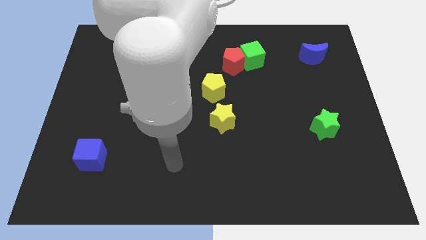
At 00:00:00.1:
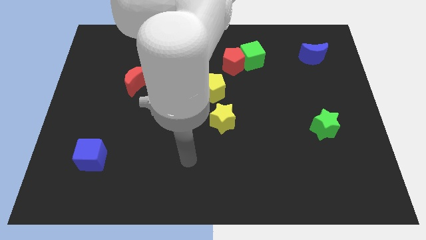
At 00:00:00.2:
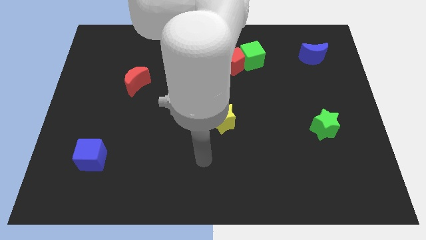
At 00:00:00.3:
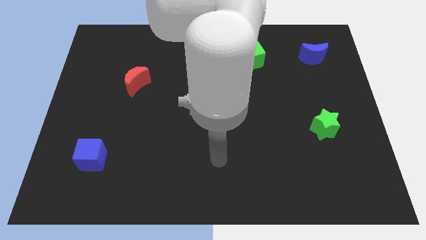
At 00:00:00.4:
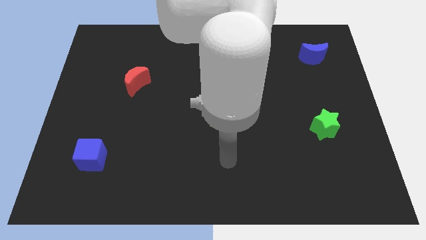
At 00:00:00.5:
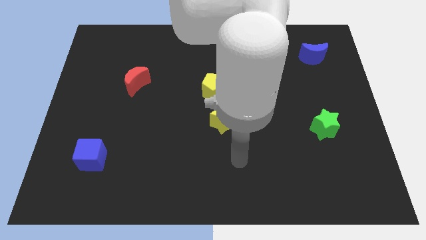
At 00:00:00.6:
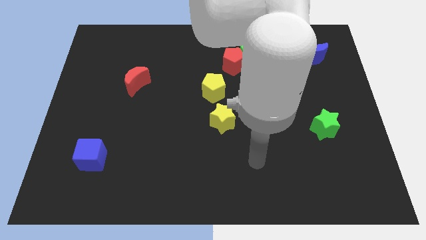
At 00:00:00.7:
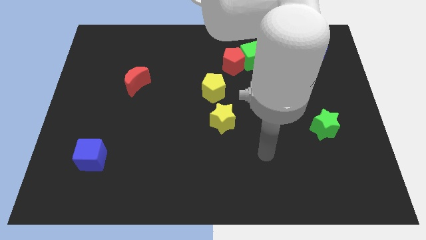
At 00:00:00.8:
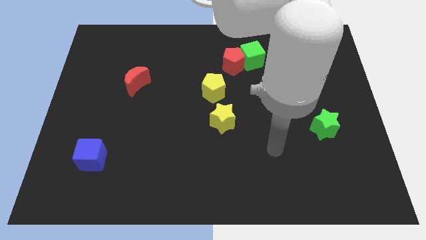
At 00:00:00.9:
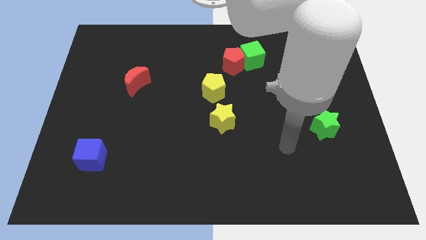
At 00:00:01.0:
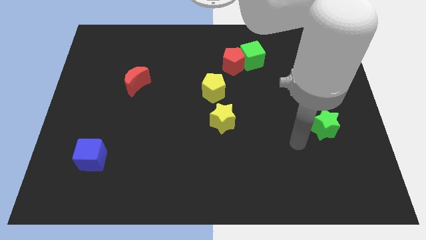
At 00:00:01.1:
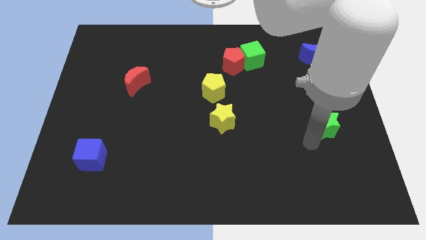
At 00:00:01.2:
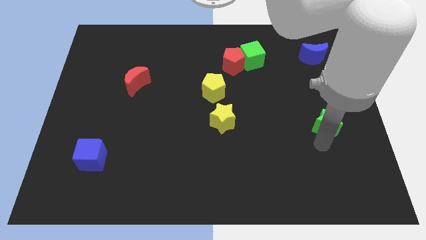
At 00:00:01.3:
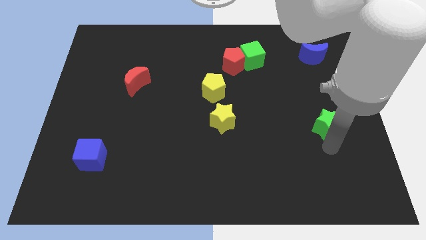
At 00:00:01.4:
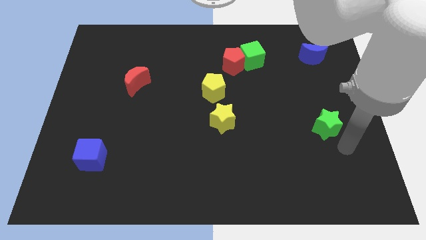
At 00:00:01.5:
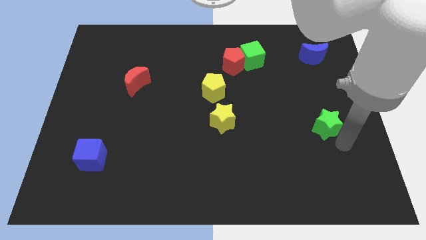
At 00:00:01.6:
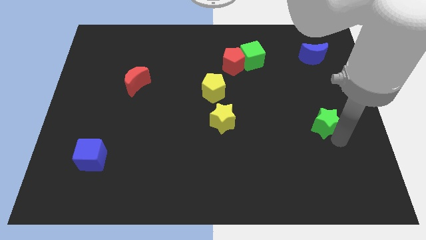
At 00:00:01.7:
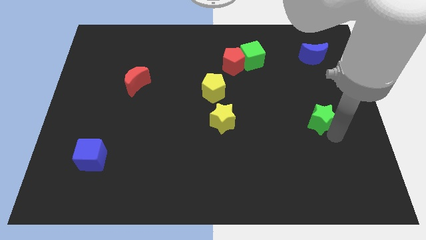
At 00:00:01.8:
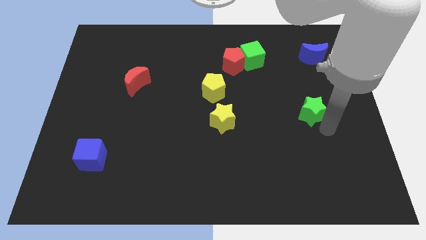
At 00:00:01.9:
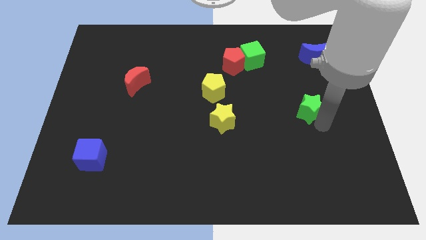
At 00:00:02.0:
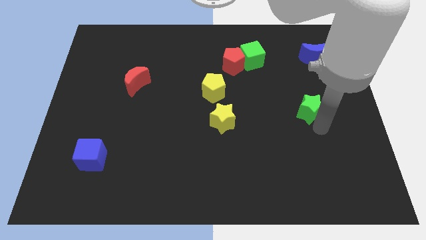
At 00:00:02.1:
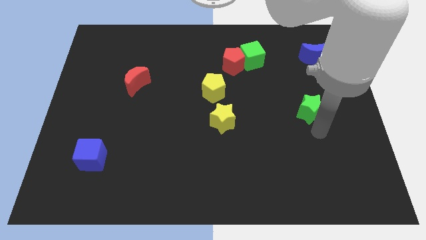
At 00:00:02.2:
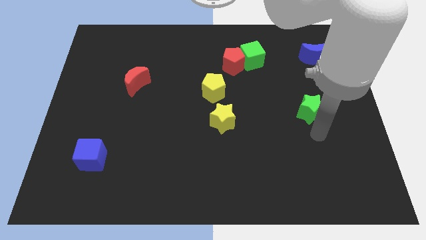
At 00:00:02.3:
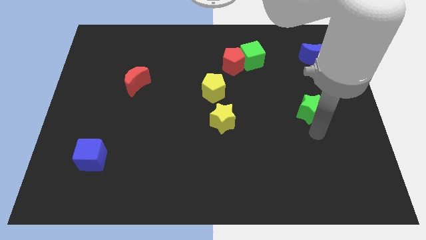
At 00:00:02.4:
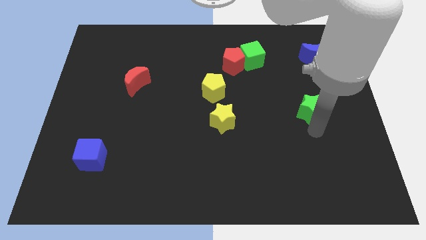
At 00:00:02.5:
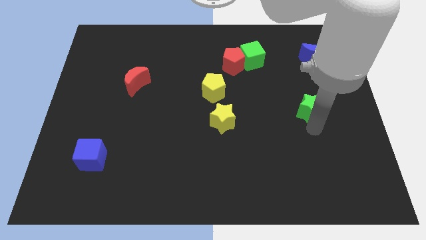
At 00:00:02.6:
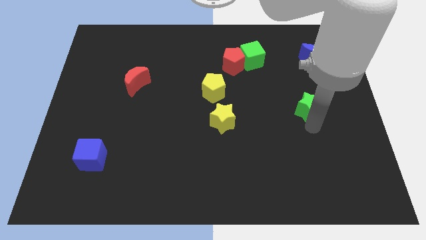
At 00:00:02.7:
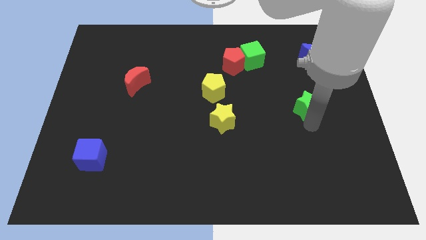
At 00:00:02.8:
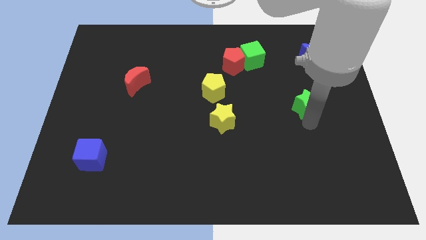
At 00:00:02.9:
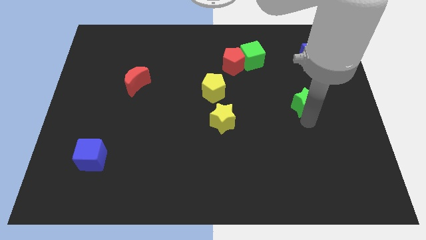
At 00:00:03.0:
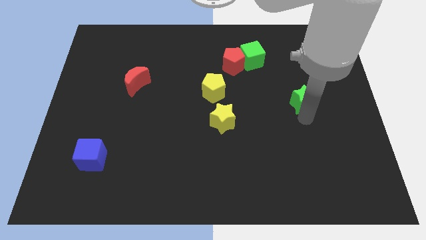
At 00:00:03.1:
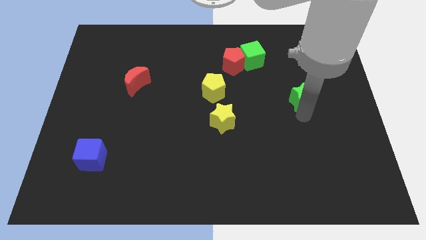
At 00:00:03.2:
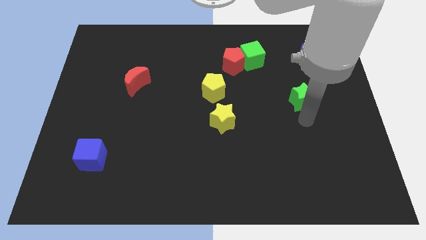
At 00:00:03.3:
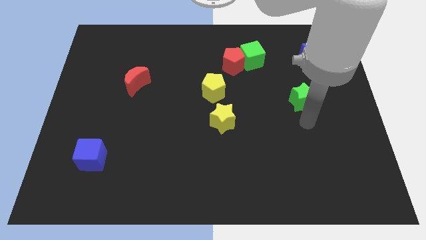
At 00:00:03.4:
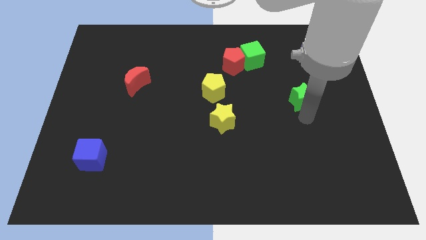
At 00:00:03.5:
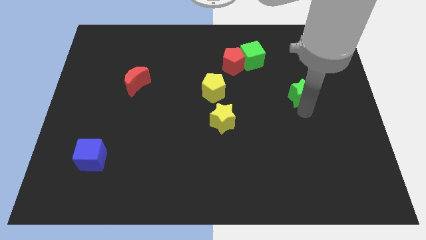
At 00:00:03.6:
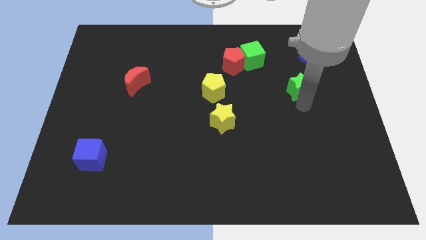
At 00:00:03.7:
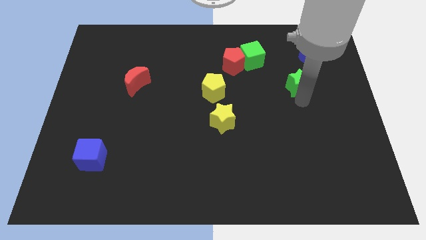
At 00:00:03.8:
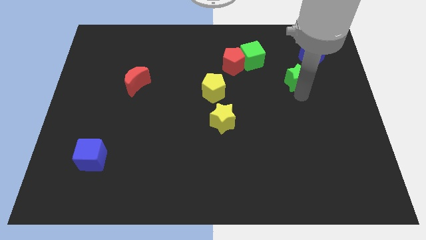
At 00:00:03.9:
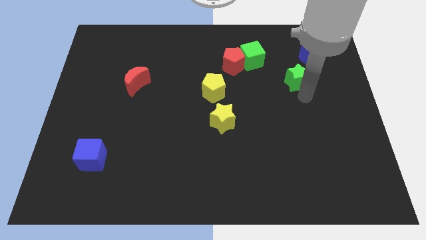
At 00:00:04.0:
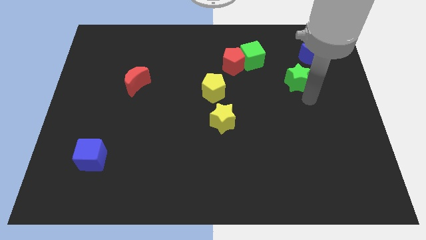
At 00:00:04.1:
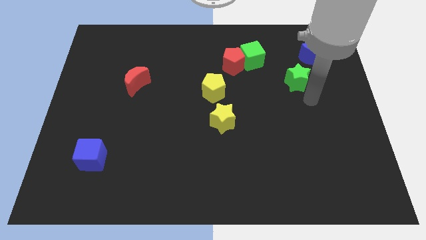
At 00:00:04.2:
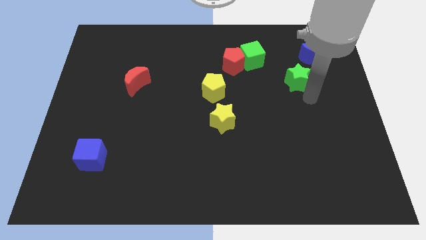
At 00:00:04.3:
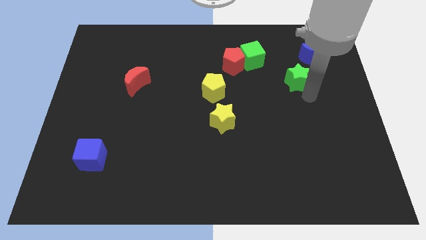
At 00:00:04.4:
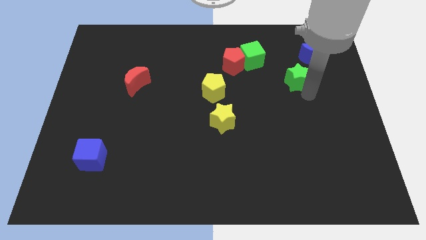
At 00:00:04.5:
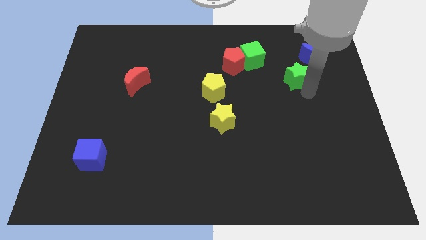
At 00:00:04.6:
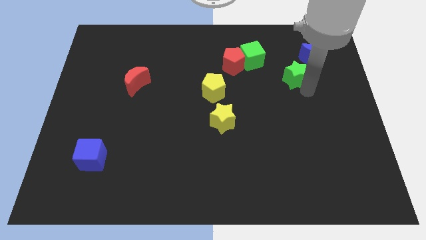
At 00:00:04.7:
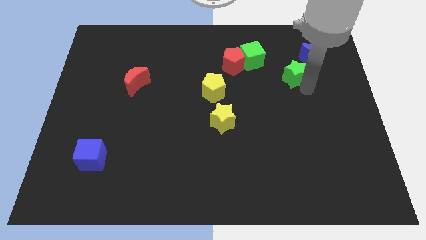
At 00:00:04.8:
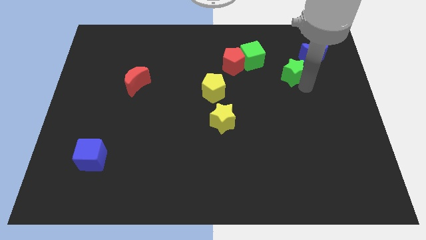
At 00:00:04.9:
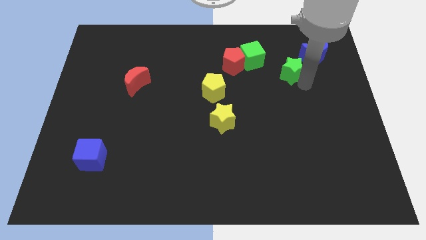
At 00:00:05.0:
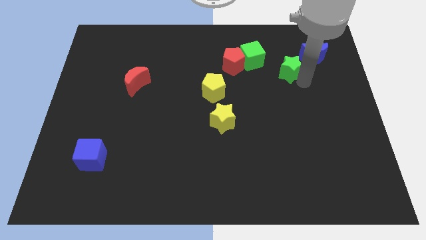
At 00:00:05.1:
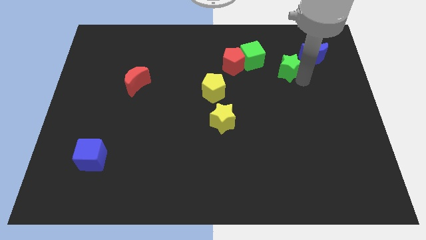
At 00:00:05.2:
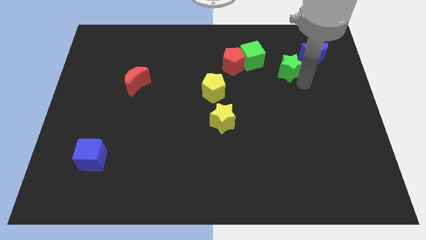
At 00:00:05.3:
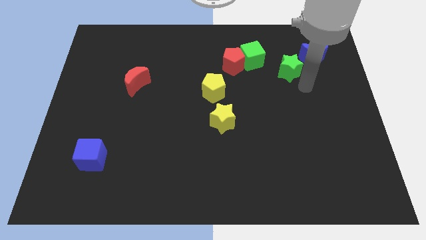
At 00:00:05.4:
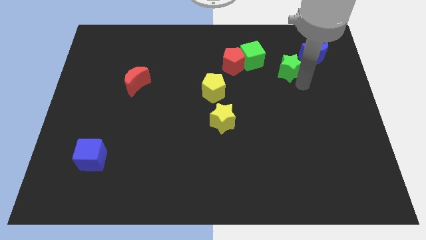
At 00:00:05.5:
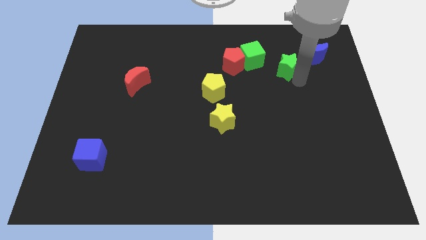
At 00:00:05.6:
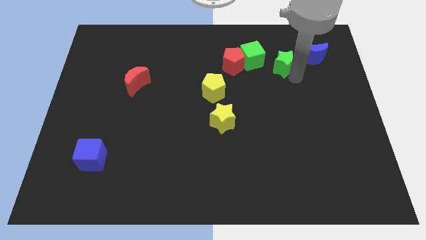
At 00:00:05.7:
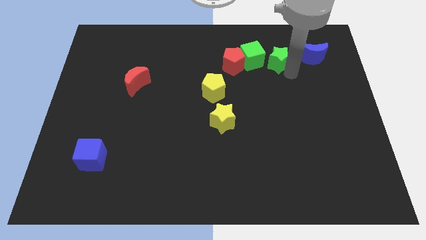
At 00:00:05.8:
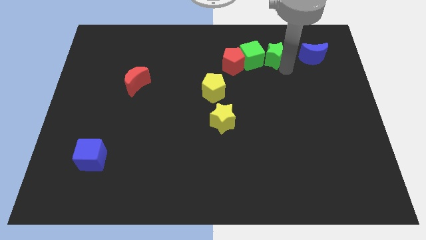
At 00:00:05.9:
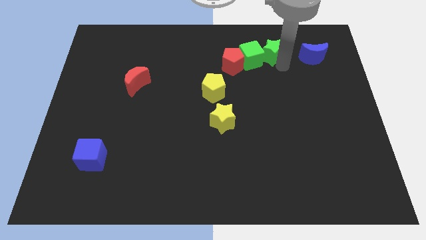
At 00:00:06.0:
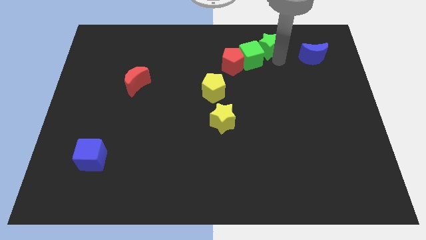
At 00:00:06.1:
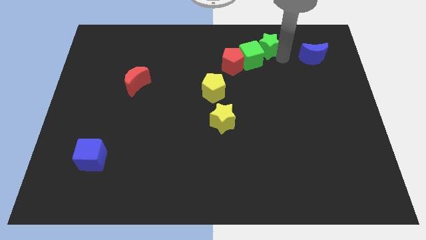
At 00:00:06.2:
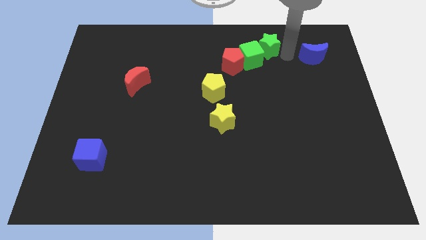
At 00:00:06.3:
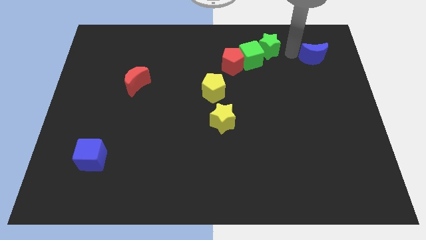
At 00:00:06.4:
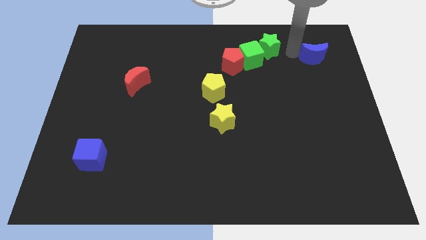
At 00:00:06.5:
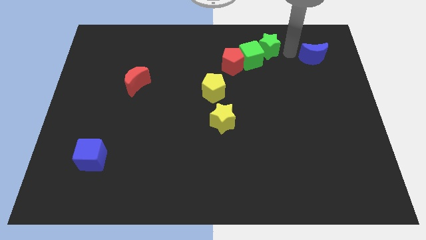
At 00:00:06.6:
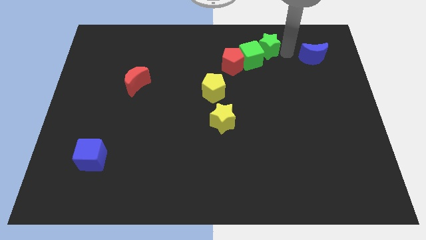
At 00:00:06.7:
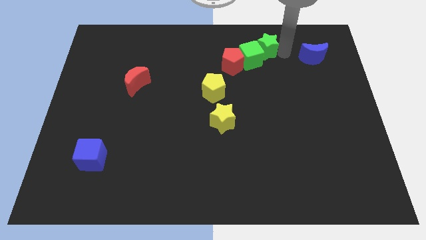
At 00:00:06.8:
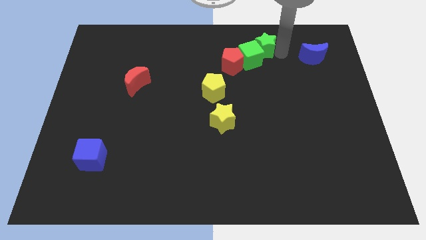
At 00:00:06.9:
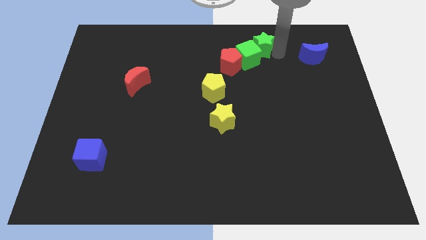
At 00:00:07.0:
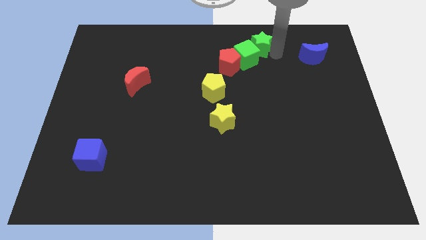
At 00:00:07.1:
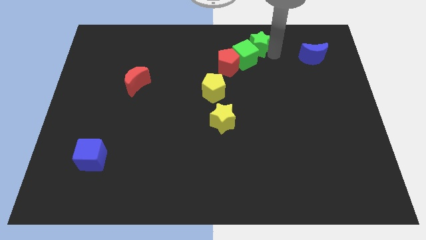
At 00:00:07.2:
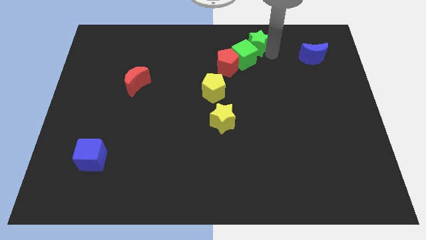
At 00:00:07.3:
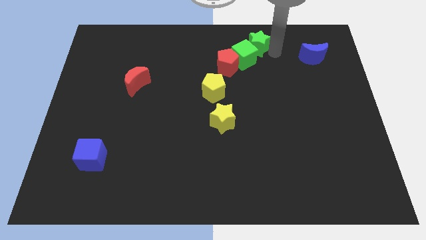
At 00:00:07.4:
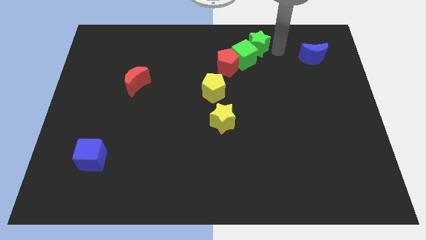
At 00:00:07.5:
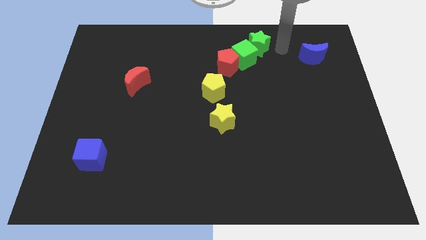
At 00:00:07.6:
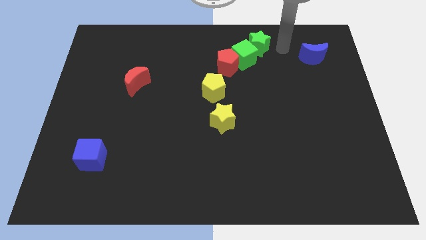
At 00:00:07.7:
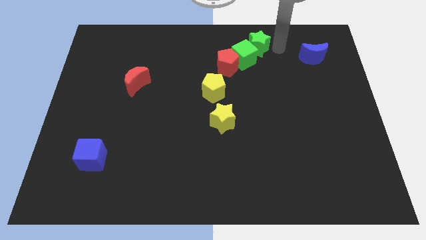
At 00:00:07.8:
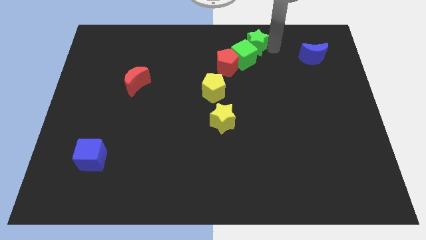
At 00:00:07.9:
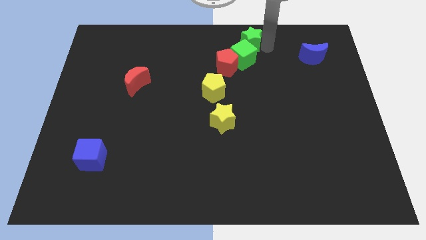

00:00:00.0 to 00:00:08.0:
slide the green star to the towards your base
